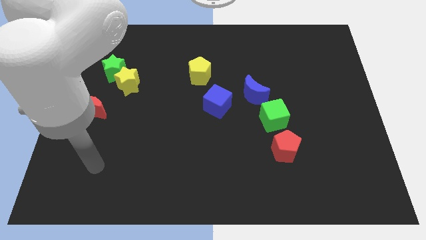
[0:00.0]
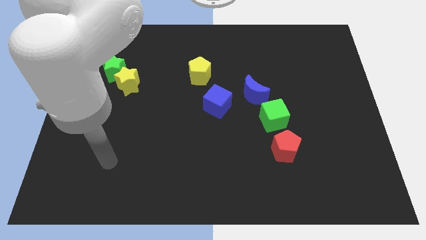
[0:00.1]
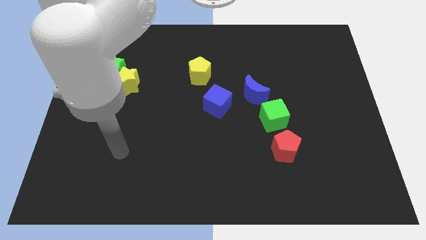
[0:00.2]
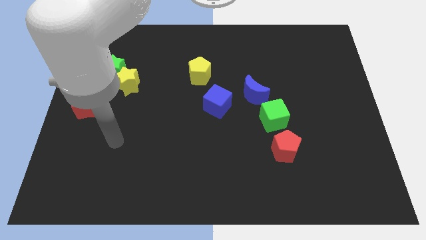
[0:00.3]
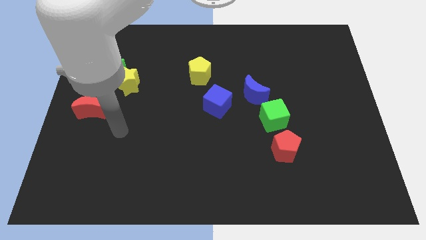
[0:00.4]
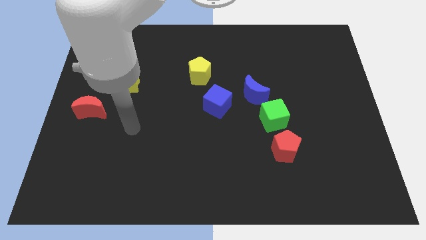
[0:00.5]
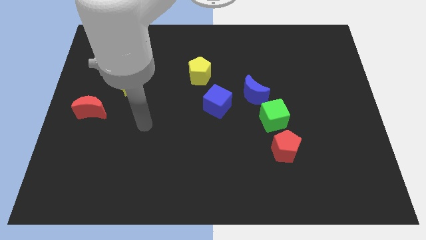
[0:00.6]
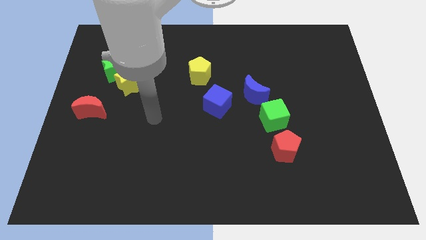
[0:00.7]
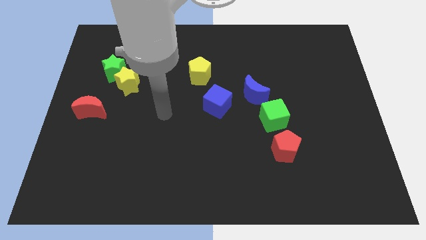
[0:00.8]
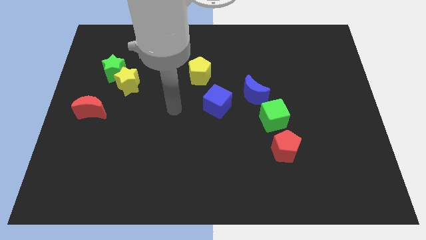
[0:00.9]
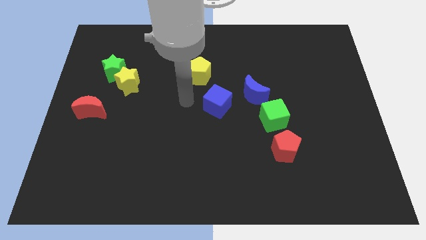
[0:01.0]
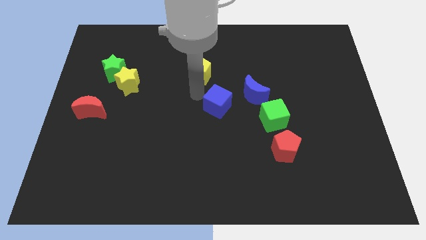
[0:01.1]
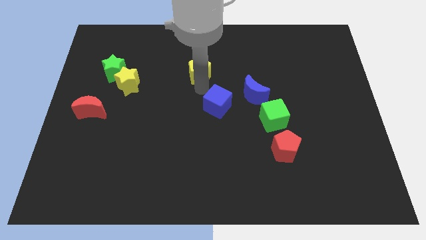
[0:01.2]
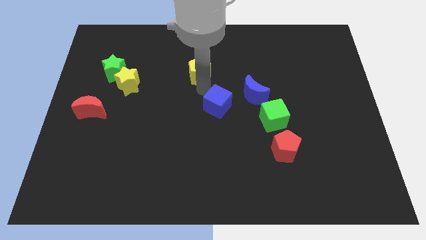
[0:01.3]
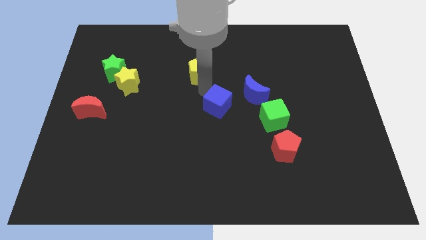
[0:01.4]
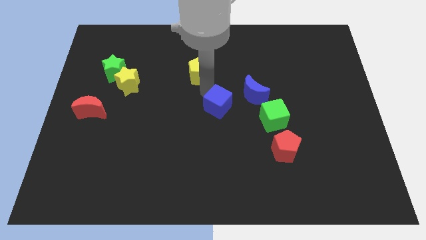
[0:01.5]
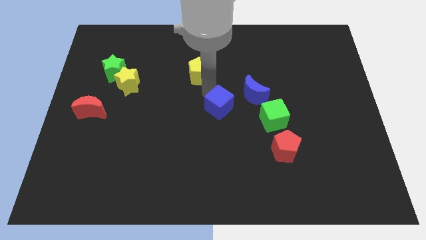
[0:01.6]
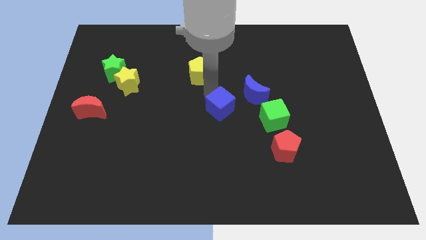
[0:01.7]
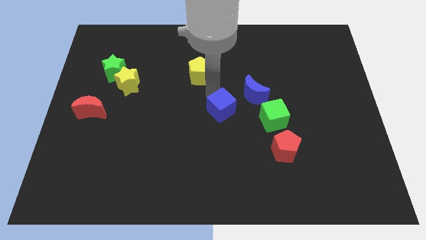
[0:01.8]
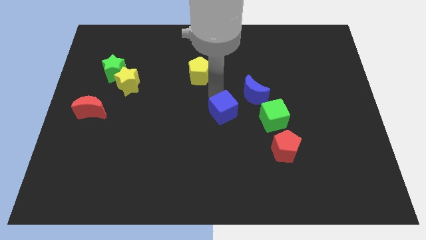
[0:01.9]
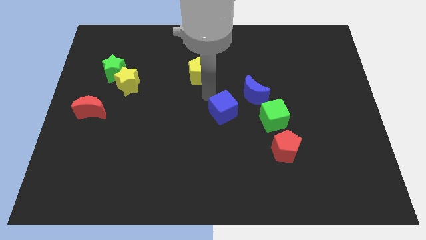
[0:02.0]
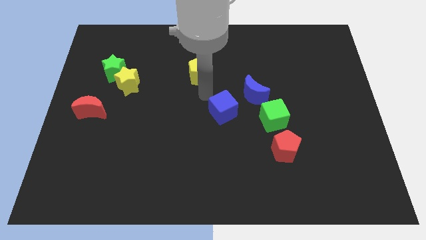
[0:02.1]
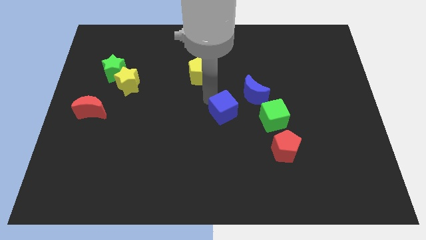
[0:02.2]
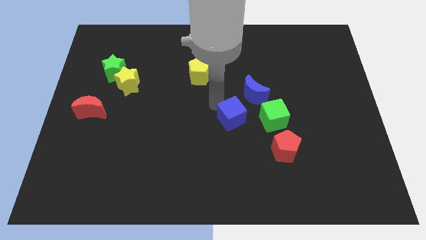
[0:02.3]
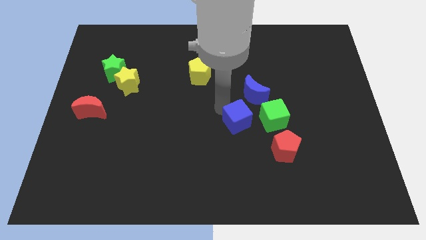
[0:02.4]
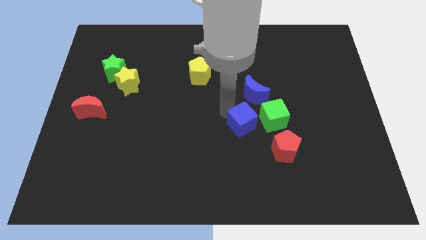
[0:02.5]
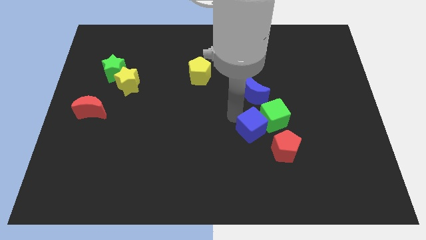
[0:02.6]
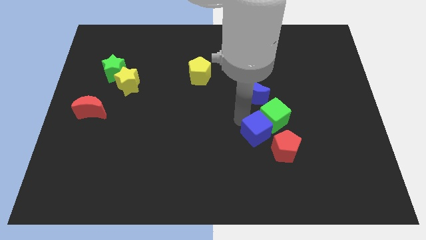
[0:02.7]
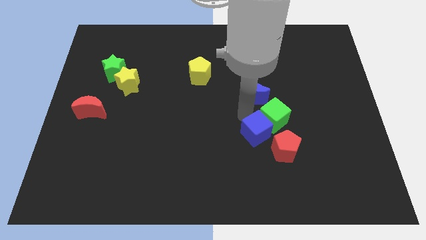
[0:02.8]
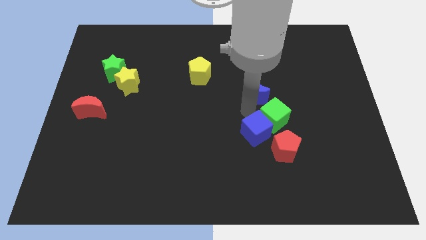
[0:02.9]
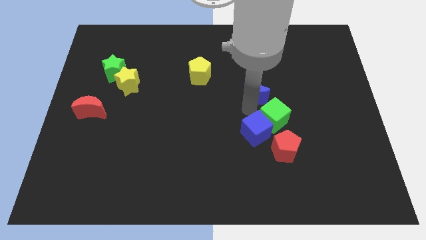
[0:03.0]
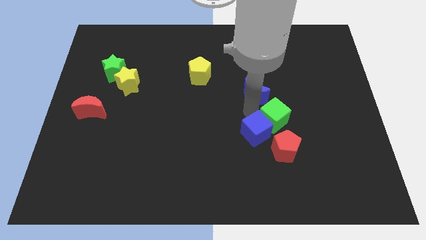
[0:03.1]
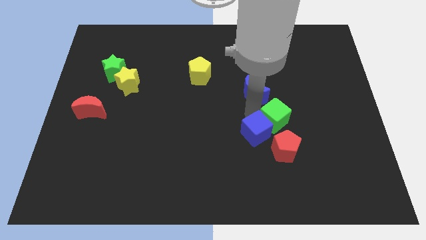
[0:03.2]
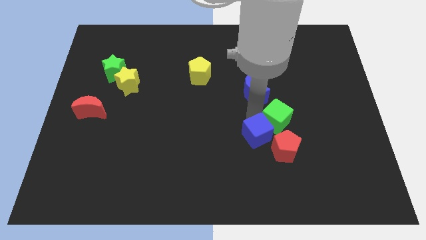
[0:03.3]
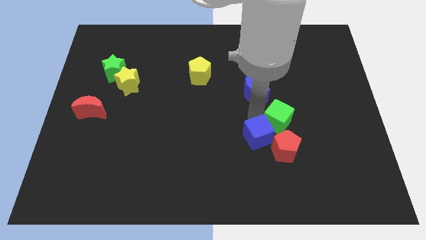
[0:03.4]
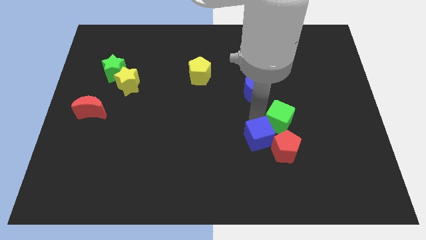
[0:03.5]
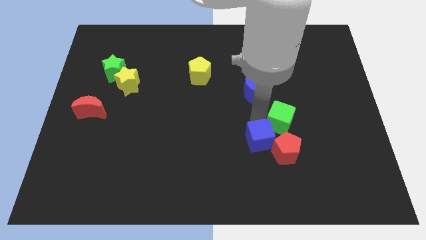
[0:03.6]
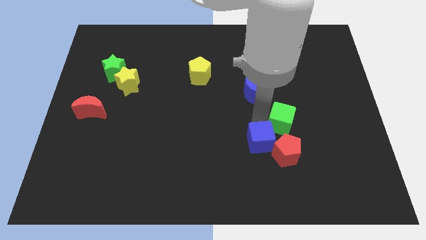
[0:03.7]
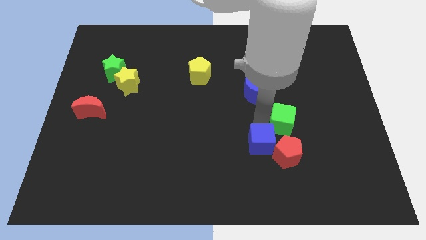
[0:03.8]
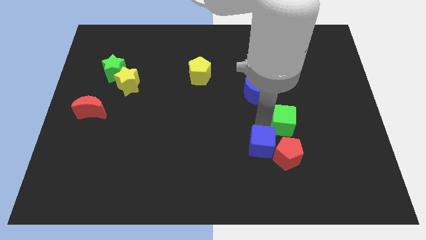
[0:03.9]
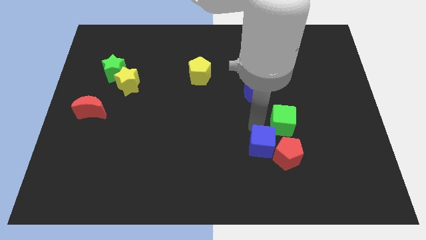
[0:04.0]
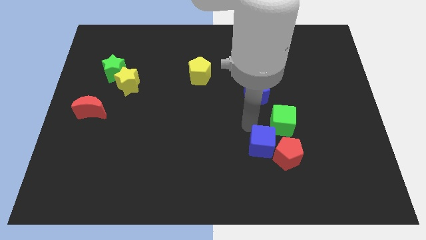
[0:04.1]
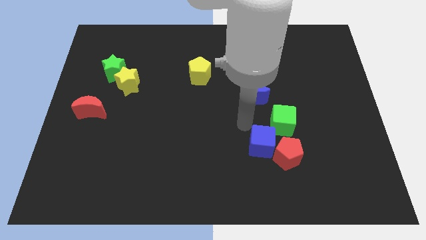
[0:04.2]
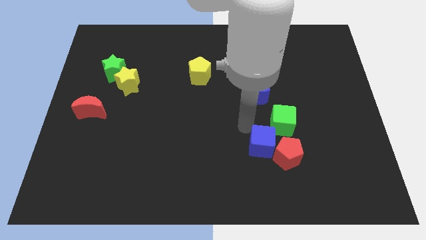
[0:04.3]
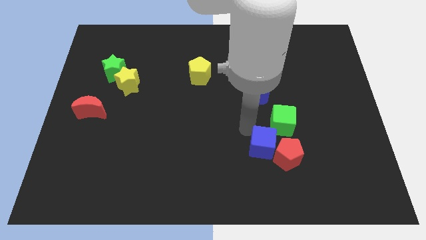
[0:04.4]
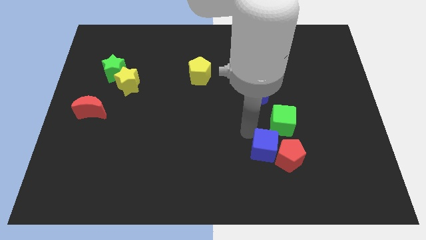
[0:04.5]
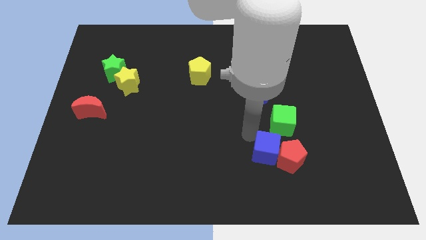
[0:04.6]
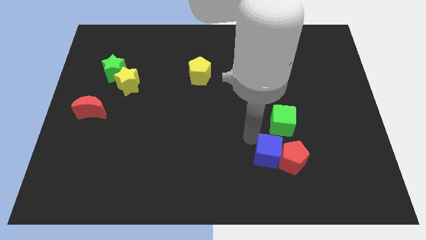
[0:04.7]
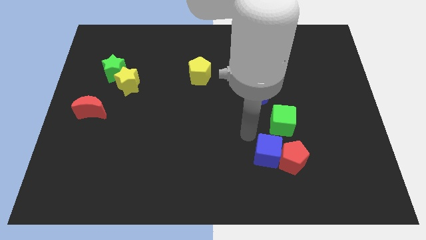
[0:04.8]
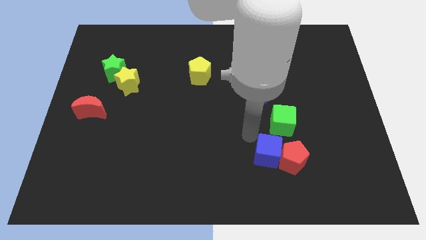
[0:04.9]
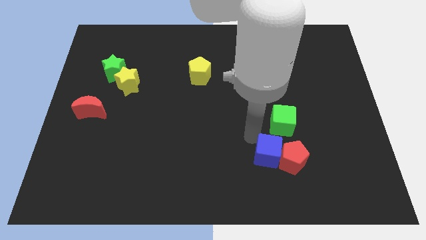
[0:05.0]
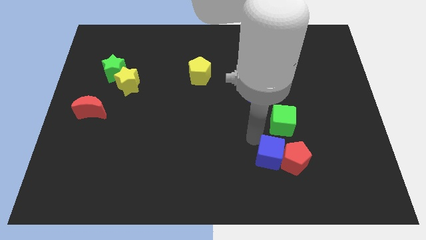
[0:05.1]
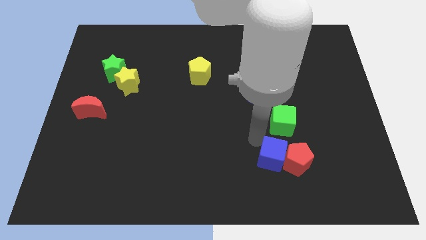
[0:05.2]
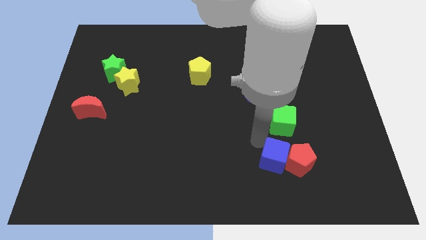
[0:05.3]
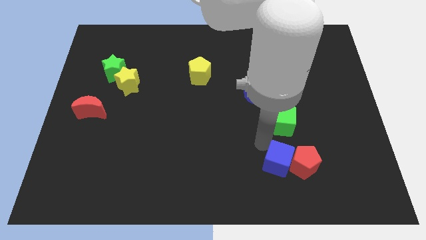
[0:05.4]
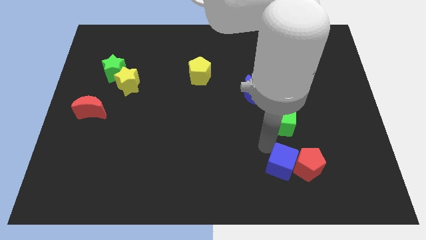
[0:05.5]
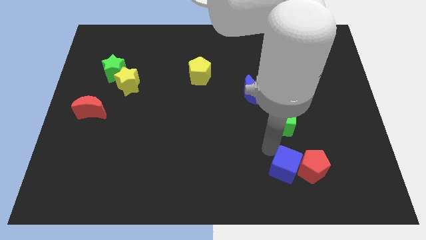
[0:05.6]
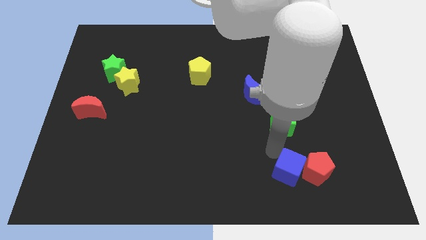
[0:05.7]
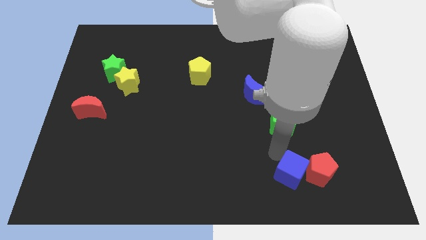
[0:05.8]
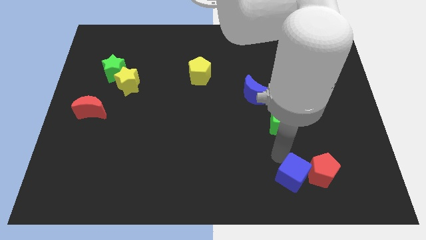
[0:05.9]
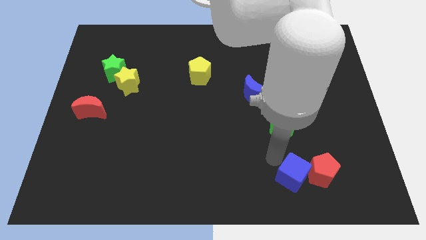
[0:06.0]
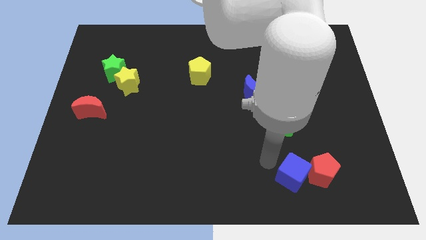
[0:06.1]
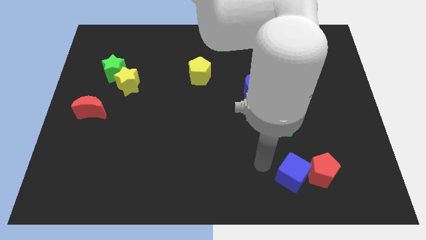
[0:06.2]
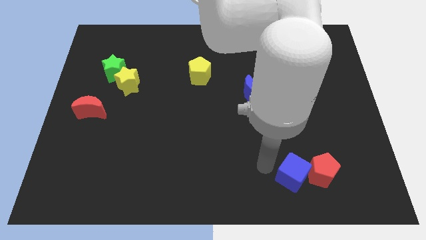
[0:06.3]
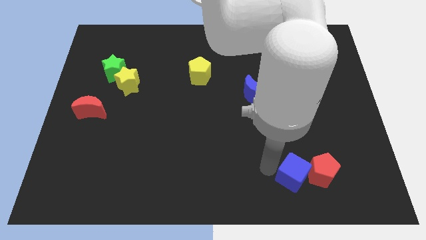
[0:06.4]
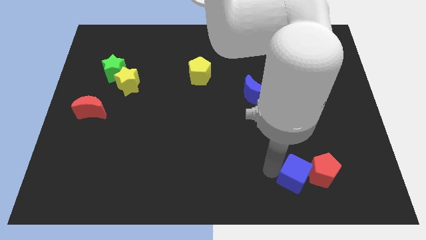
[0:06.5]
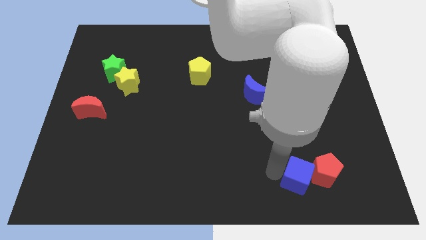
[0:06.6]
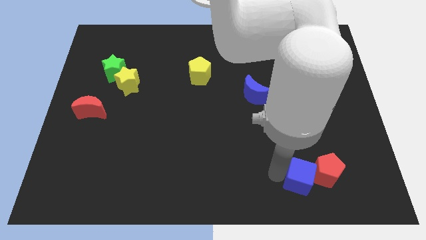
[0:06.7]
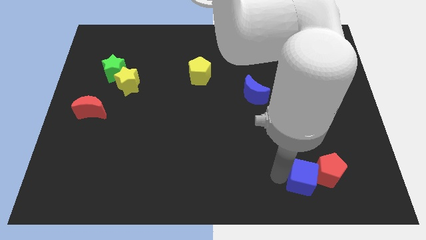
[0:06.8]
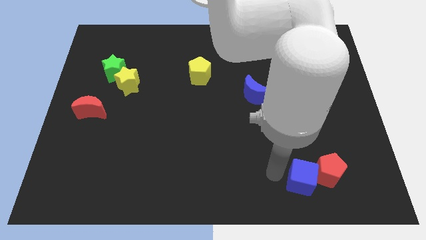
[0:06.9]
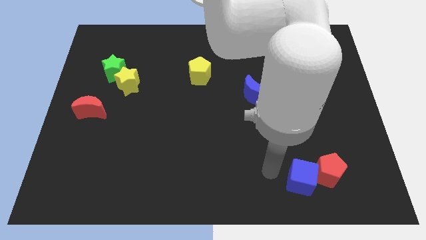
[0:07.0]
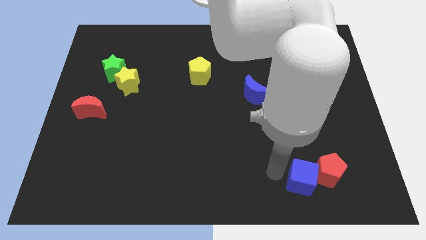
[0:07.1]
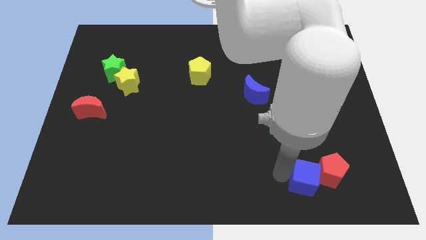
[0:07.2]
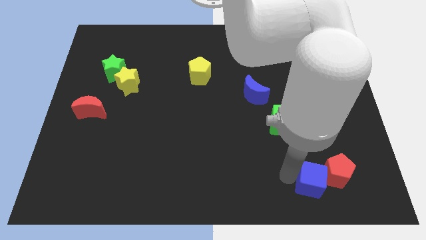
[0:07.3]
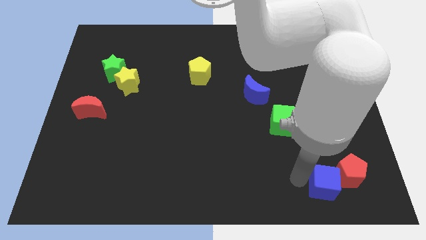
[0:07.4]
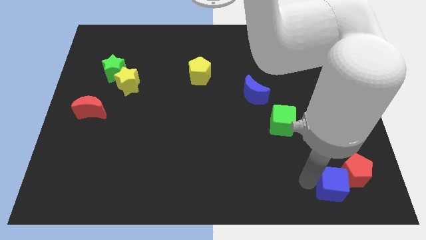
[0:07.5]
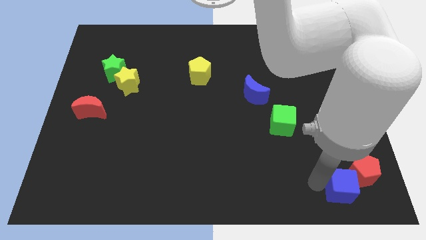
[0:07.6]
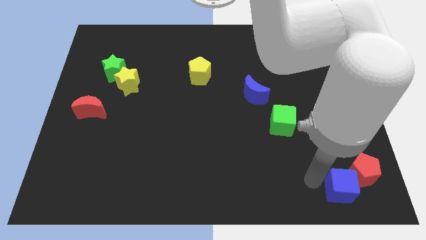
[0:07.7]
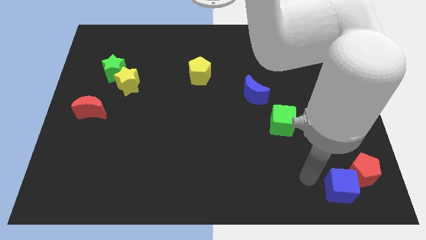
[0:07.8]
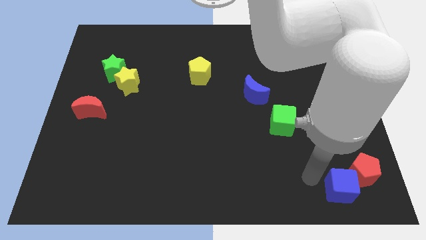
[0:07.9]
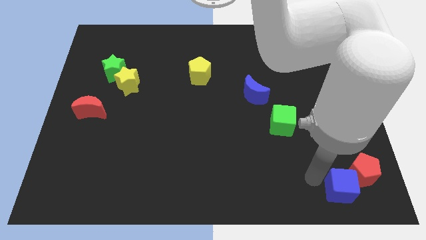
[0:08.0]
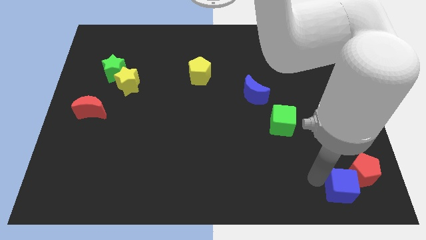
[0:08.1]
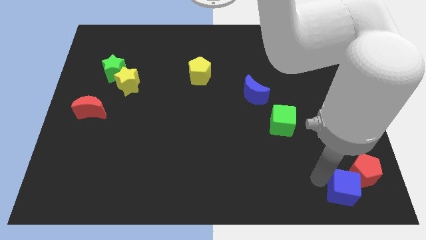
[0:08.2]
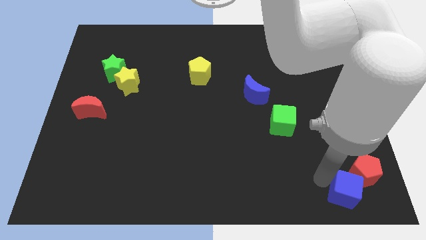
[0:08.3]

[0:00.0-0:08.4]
move the blue cube to the bottom right
